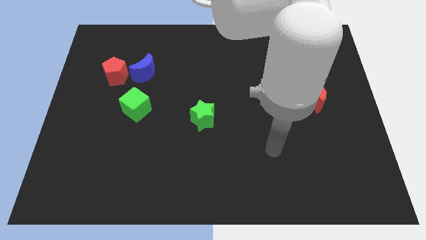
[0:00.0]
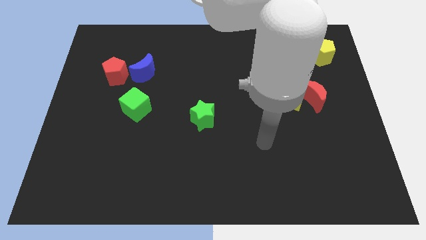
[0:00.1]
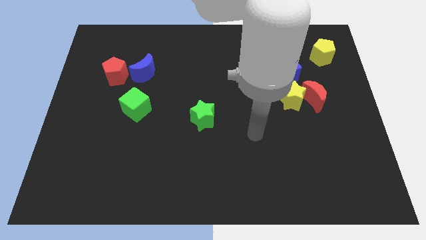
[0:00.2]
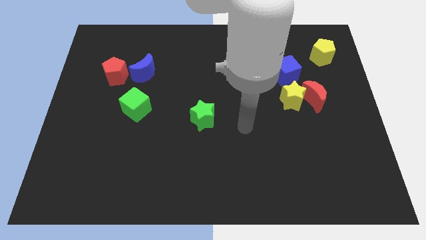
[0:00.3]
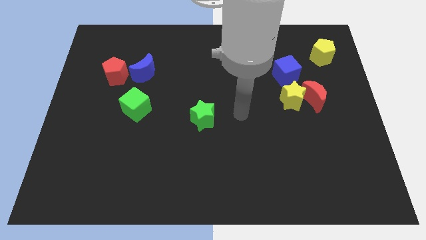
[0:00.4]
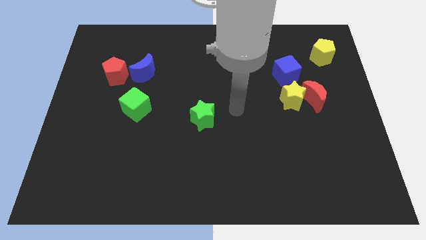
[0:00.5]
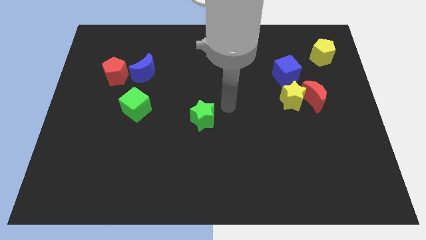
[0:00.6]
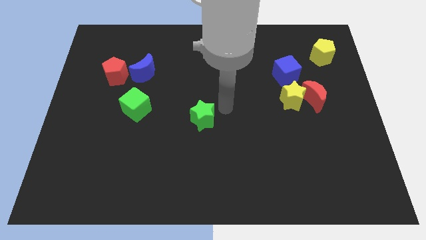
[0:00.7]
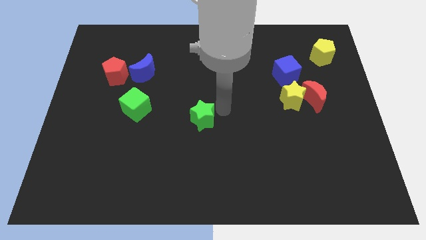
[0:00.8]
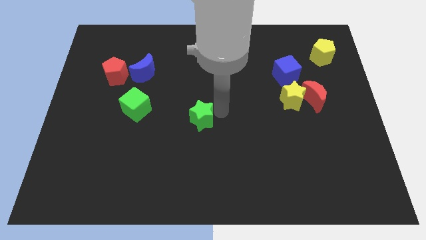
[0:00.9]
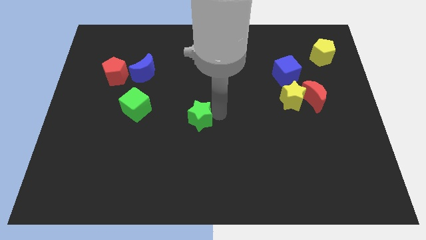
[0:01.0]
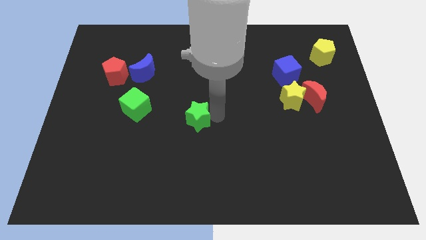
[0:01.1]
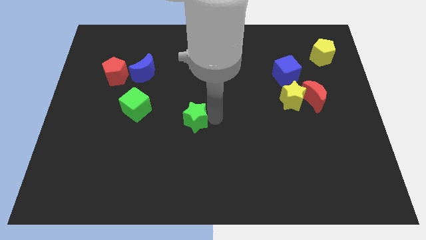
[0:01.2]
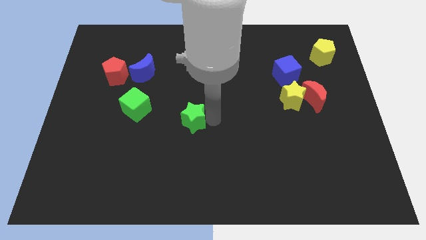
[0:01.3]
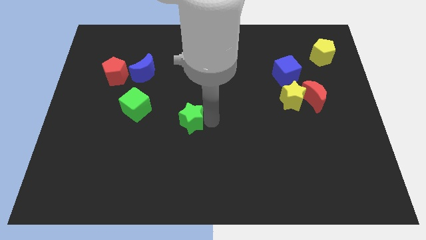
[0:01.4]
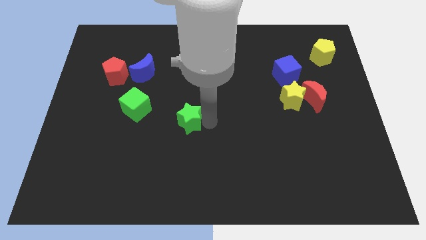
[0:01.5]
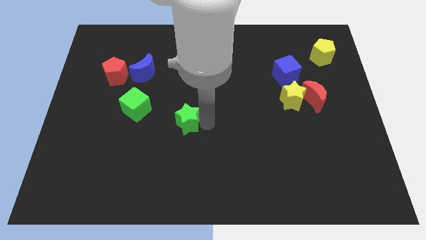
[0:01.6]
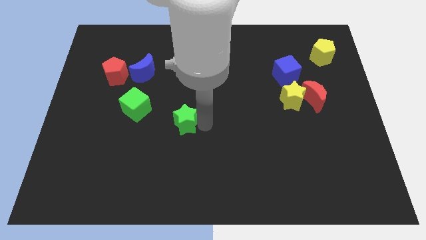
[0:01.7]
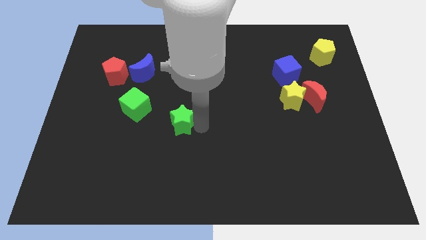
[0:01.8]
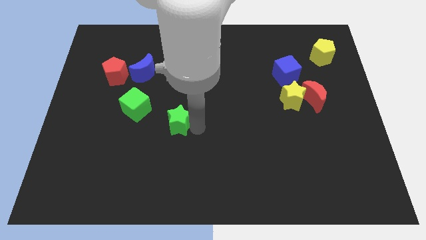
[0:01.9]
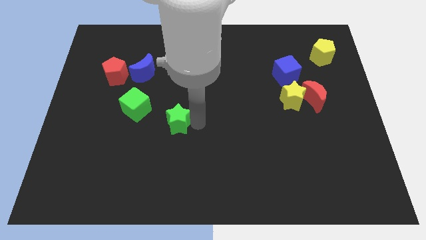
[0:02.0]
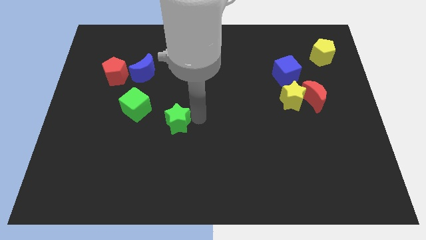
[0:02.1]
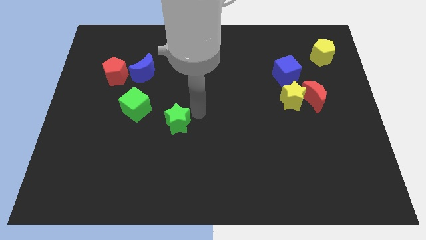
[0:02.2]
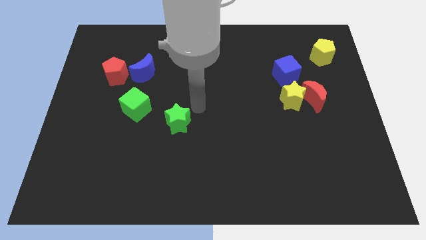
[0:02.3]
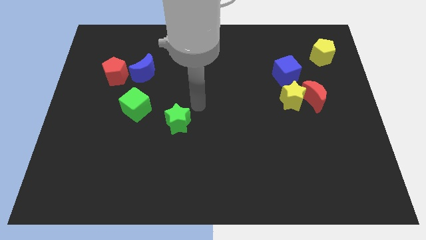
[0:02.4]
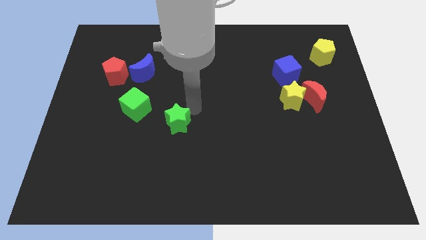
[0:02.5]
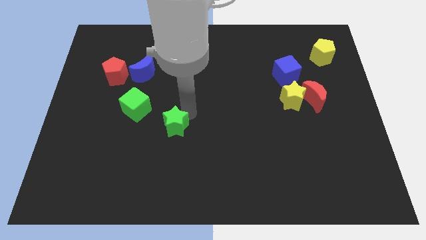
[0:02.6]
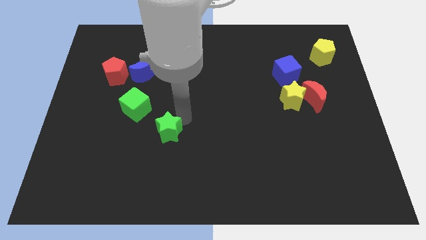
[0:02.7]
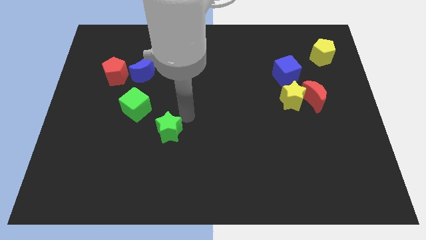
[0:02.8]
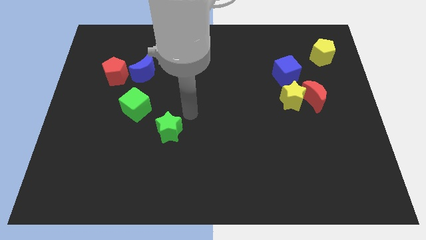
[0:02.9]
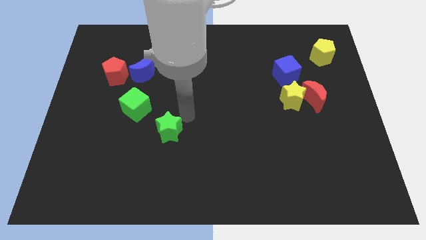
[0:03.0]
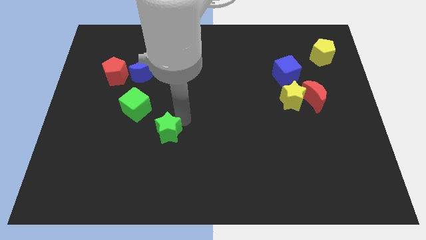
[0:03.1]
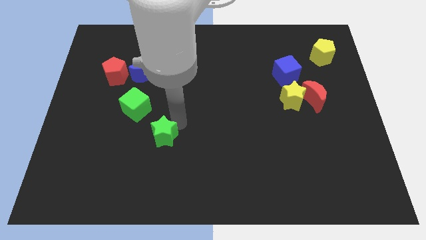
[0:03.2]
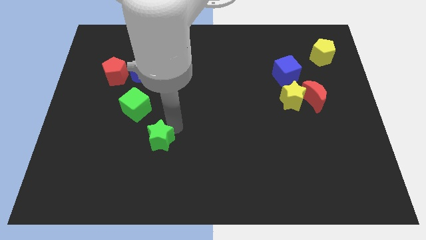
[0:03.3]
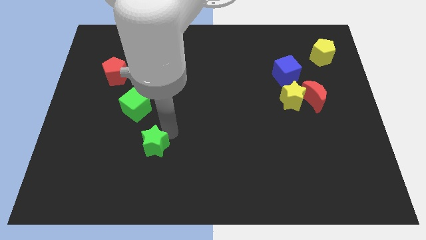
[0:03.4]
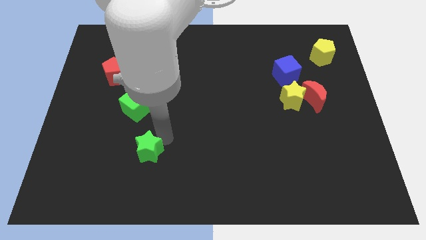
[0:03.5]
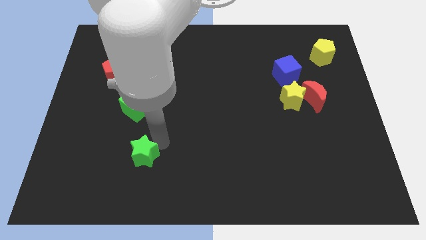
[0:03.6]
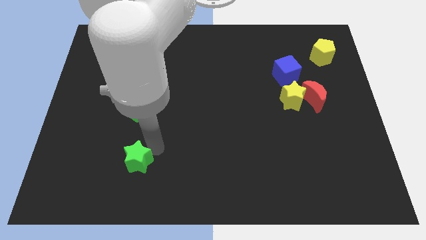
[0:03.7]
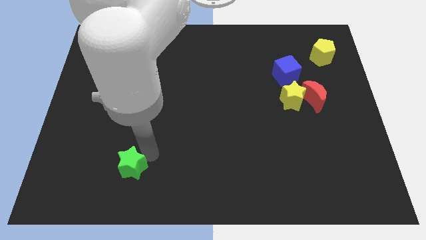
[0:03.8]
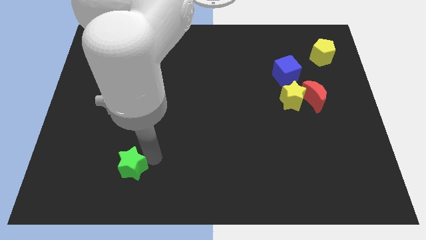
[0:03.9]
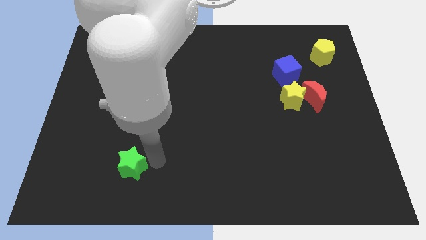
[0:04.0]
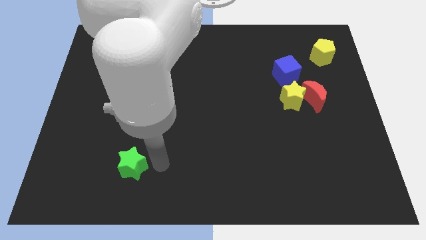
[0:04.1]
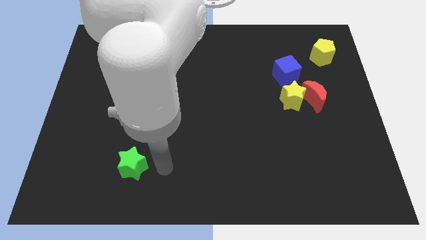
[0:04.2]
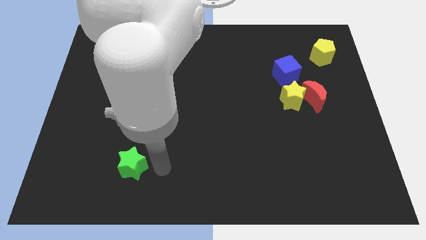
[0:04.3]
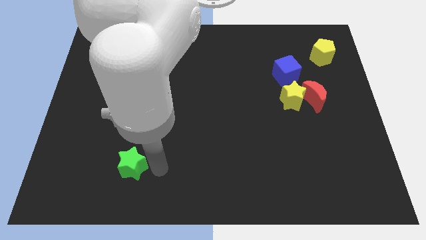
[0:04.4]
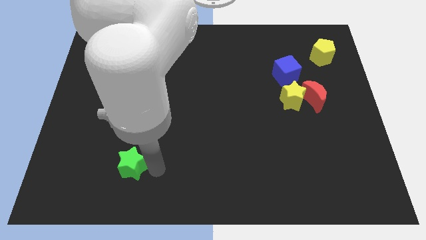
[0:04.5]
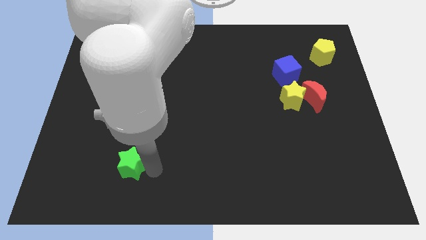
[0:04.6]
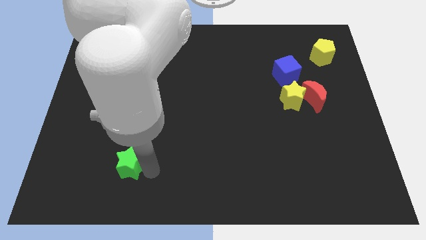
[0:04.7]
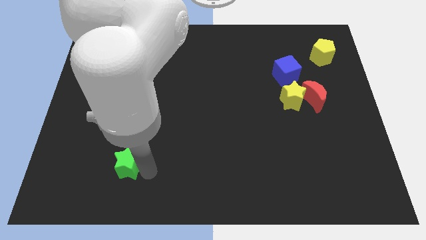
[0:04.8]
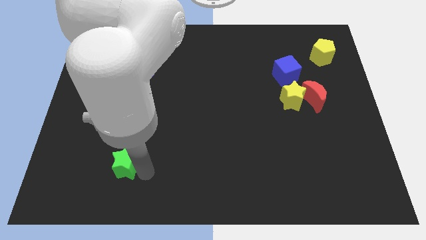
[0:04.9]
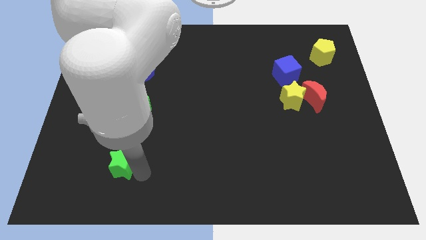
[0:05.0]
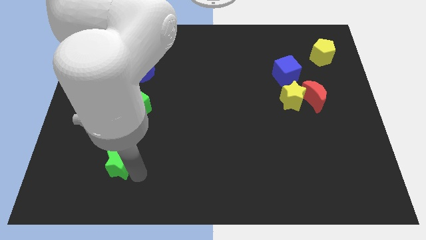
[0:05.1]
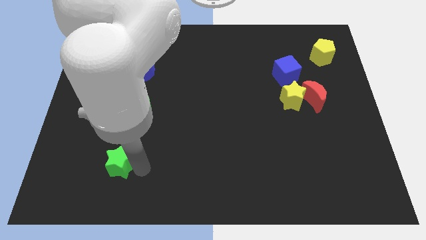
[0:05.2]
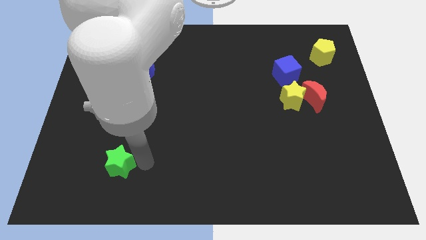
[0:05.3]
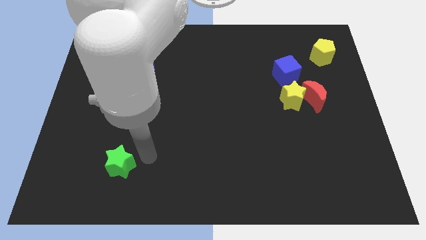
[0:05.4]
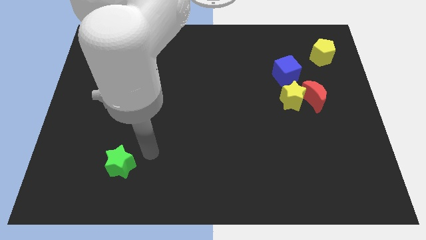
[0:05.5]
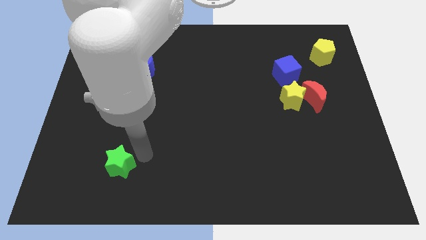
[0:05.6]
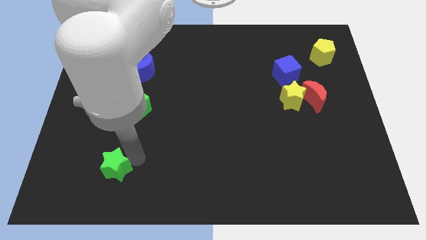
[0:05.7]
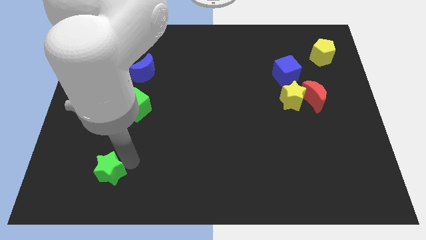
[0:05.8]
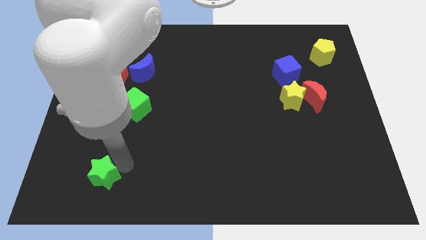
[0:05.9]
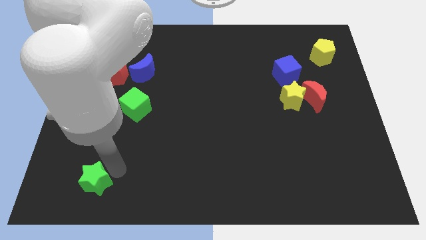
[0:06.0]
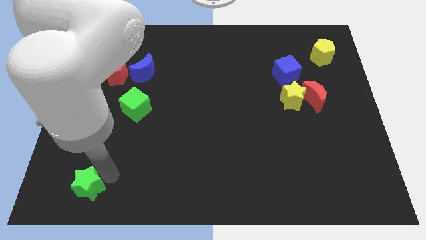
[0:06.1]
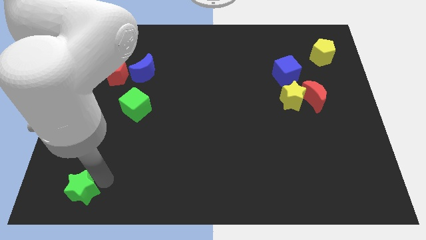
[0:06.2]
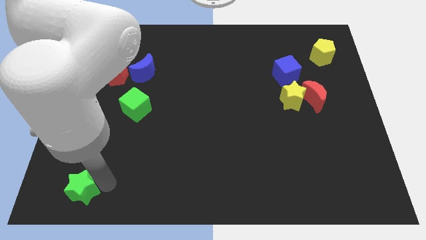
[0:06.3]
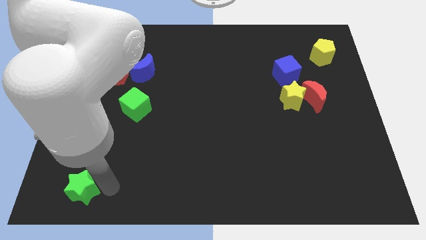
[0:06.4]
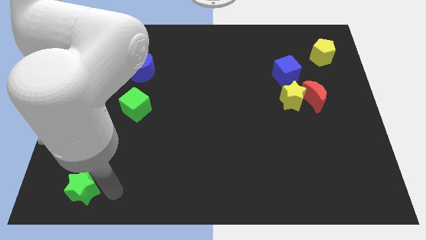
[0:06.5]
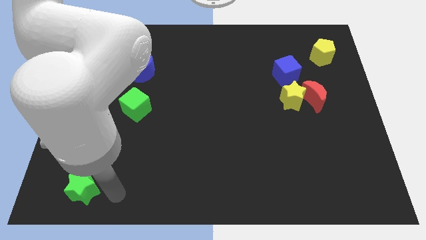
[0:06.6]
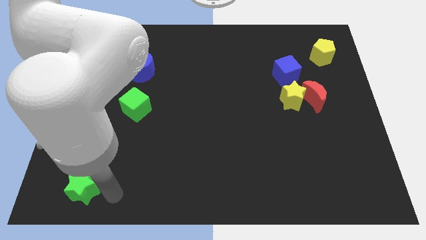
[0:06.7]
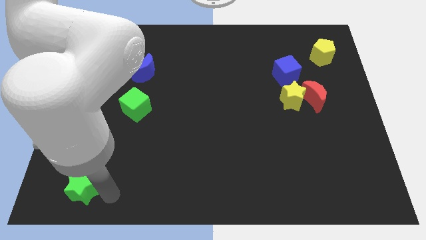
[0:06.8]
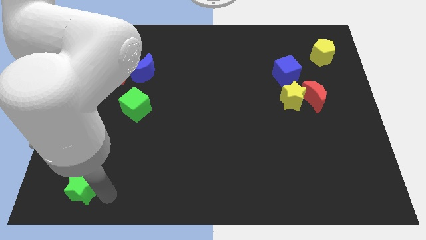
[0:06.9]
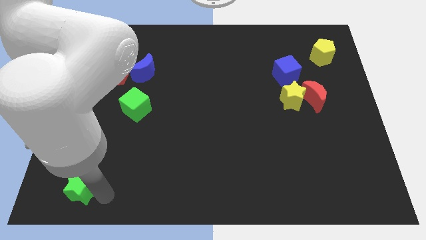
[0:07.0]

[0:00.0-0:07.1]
push the green star to the lower left corner
